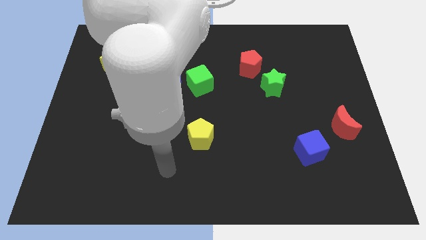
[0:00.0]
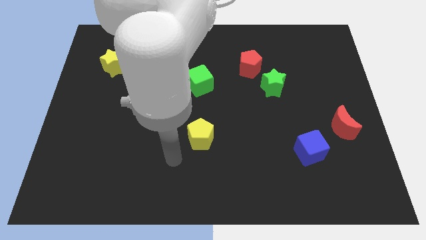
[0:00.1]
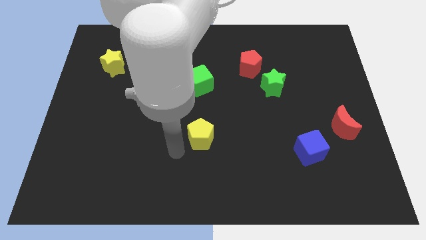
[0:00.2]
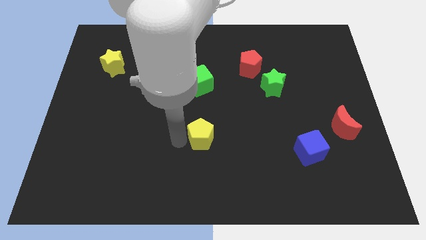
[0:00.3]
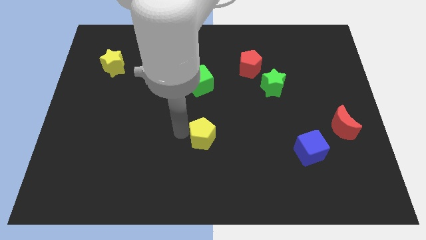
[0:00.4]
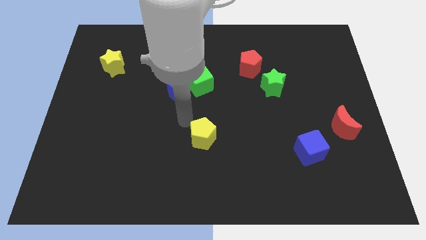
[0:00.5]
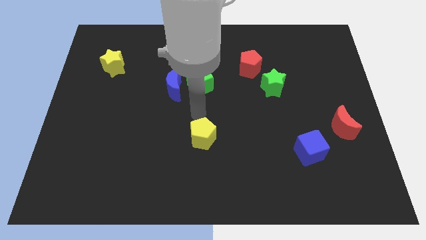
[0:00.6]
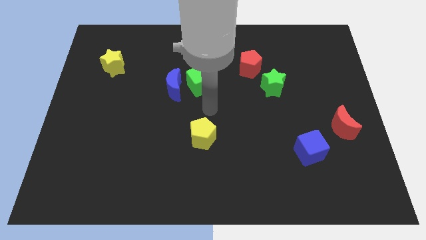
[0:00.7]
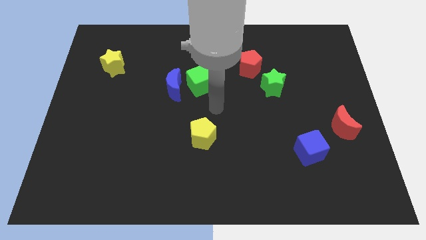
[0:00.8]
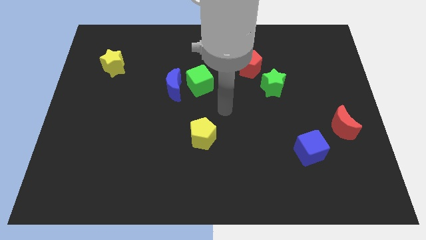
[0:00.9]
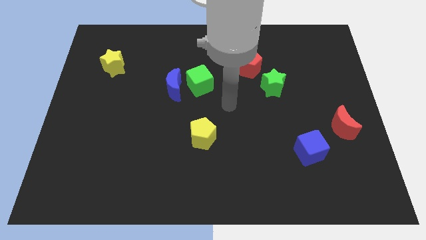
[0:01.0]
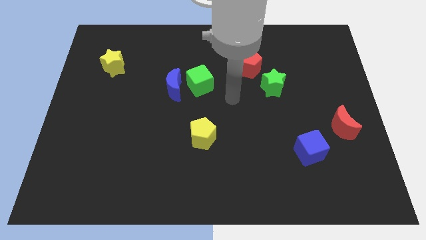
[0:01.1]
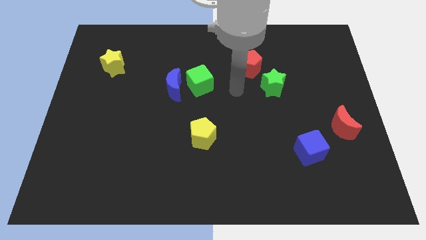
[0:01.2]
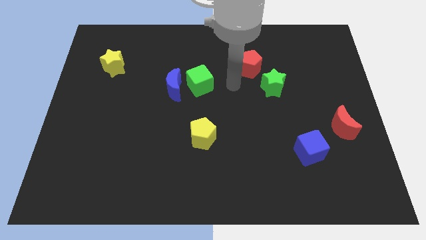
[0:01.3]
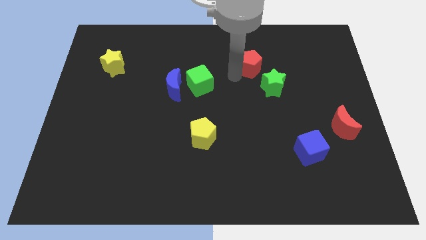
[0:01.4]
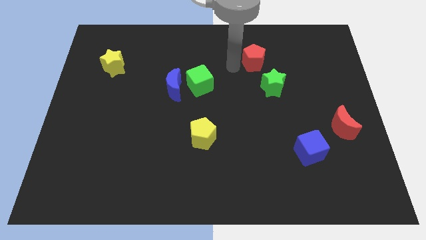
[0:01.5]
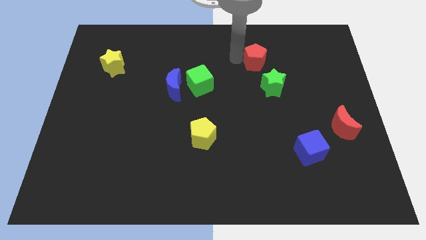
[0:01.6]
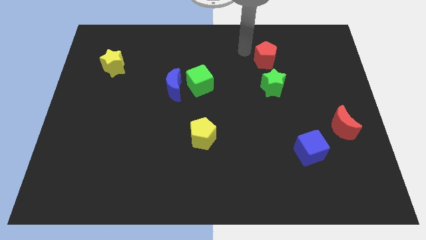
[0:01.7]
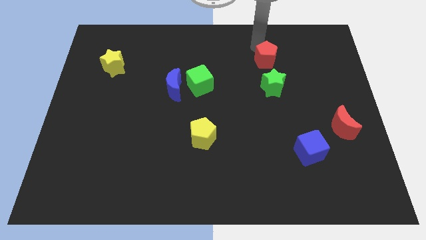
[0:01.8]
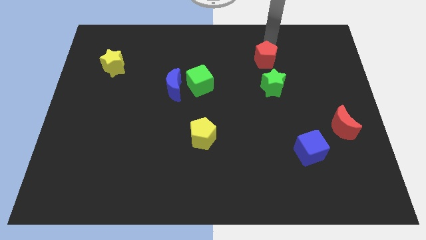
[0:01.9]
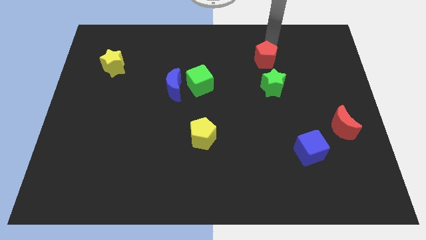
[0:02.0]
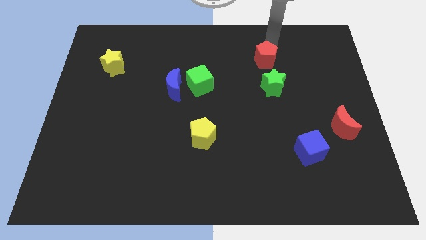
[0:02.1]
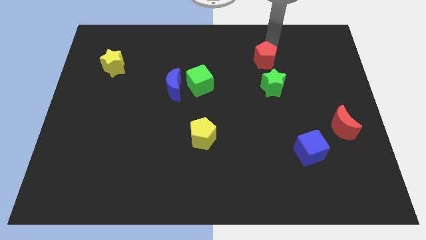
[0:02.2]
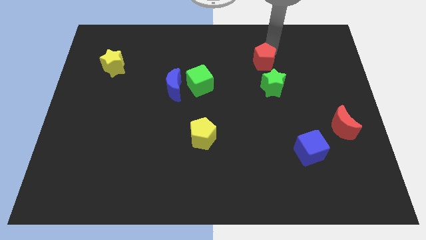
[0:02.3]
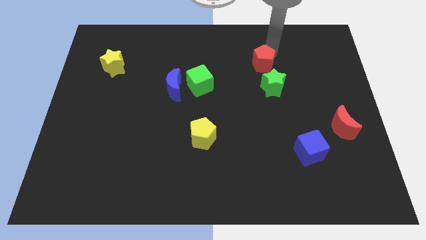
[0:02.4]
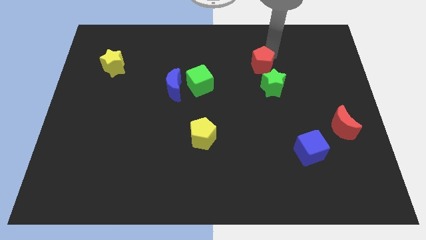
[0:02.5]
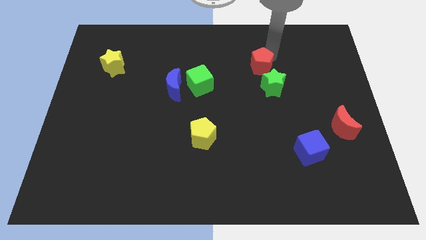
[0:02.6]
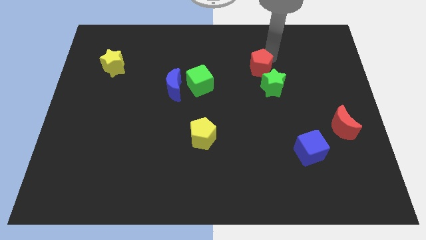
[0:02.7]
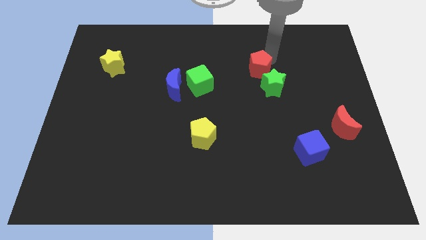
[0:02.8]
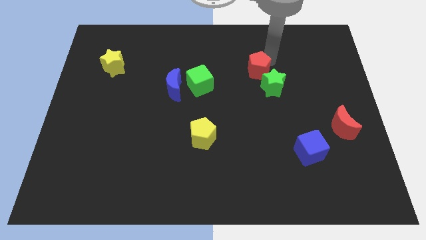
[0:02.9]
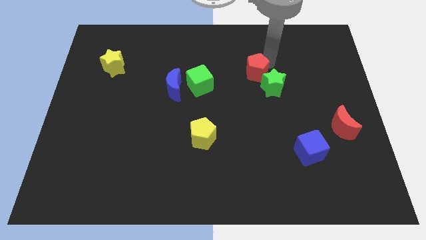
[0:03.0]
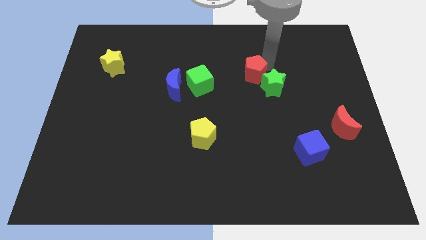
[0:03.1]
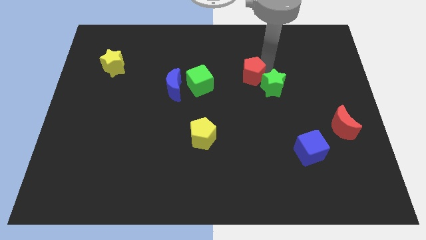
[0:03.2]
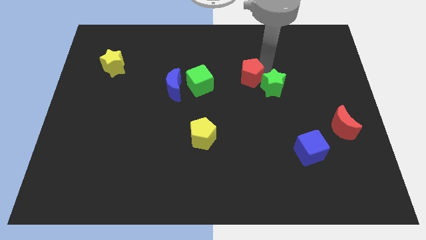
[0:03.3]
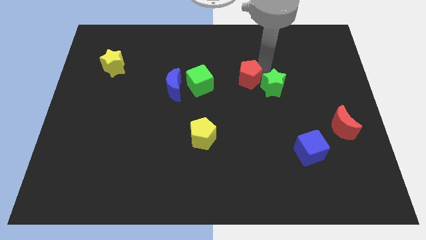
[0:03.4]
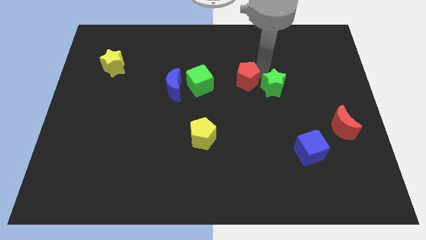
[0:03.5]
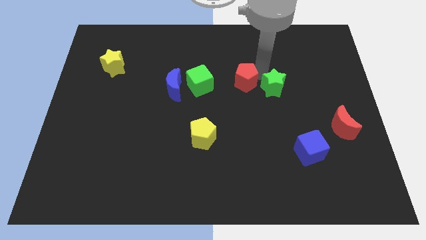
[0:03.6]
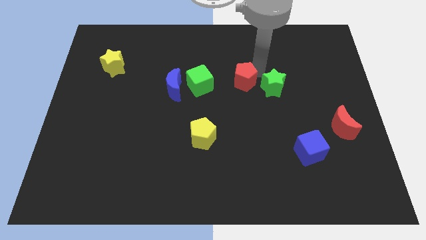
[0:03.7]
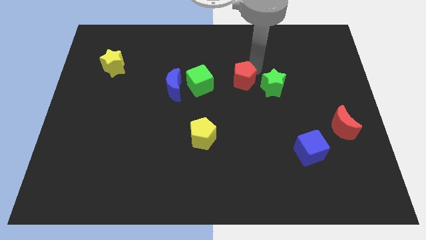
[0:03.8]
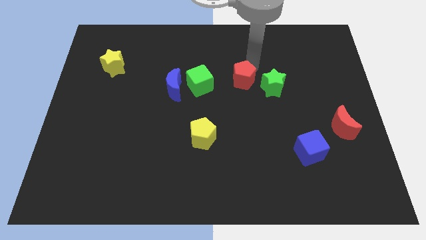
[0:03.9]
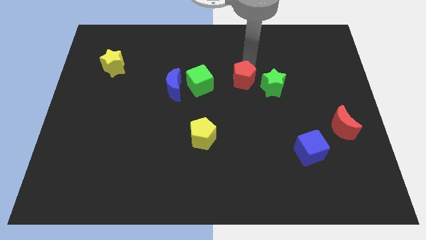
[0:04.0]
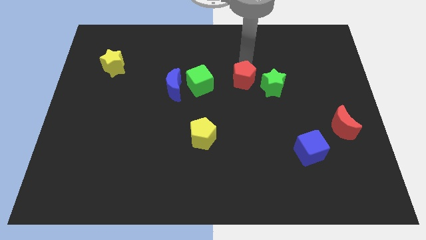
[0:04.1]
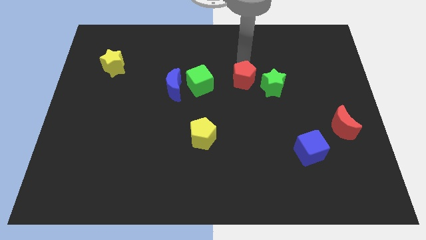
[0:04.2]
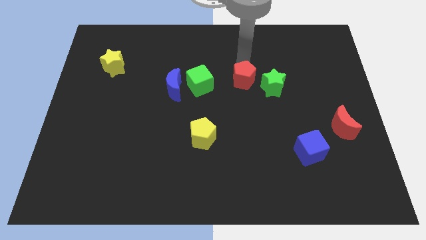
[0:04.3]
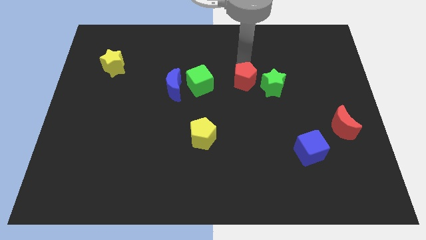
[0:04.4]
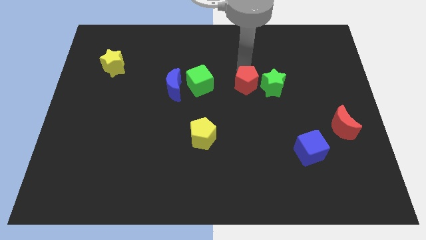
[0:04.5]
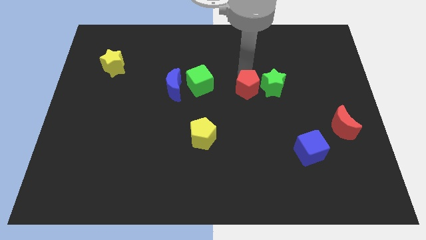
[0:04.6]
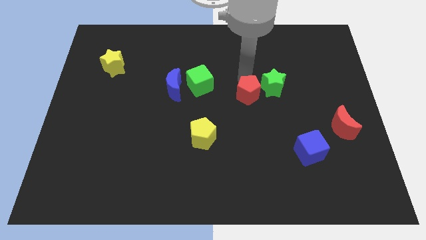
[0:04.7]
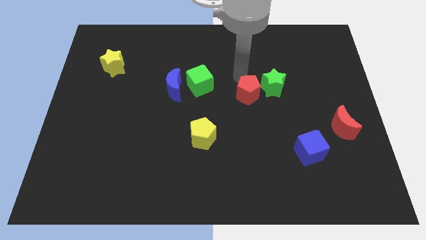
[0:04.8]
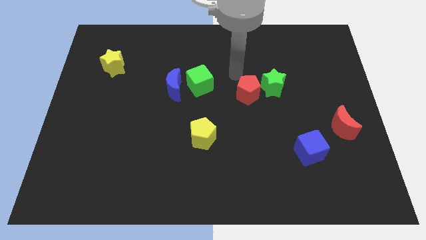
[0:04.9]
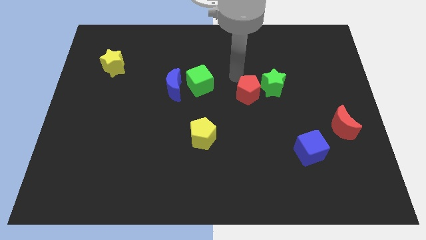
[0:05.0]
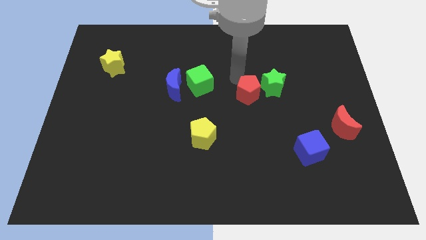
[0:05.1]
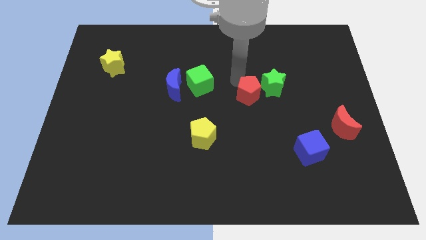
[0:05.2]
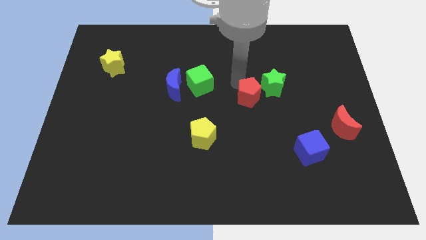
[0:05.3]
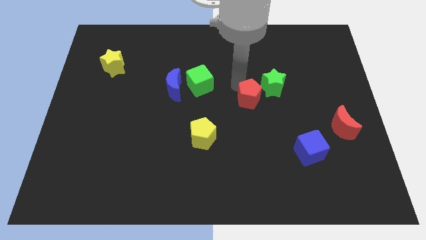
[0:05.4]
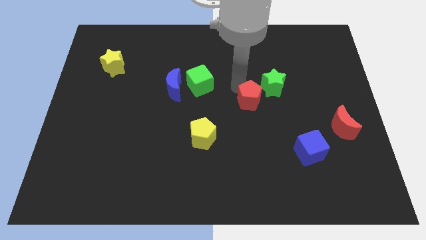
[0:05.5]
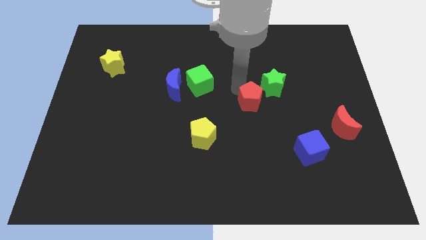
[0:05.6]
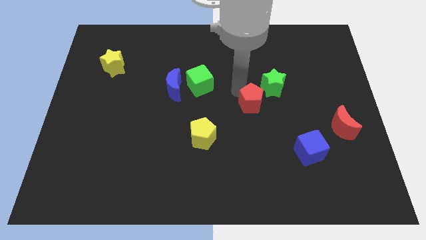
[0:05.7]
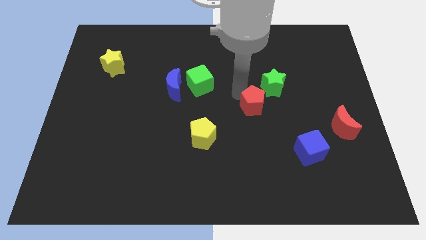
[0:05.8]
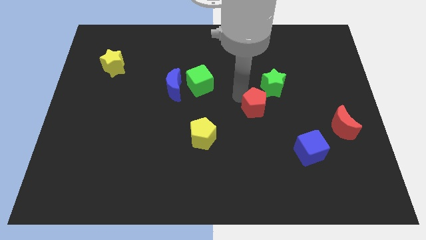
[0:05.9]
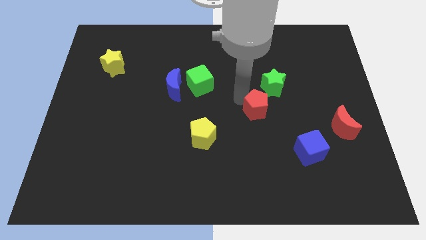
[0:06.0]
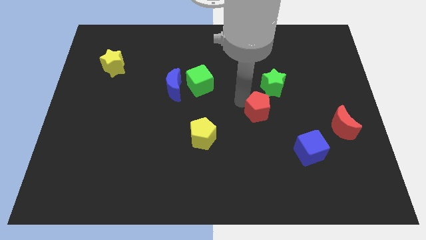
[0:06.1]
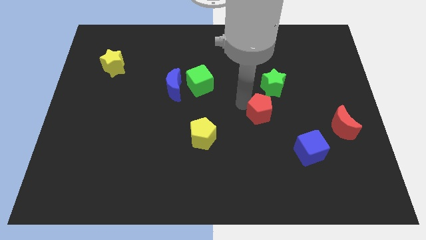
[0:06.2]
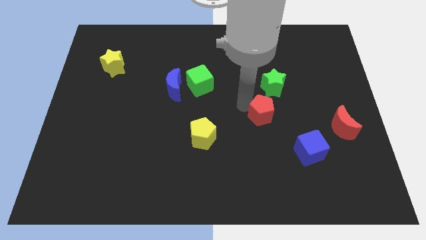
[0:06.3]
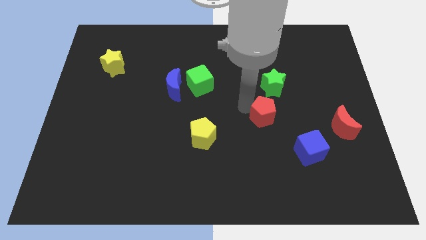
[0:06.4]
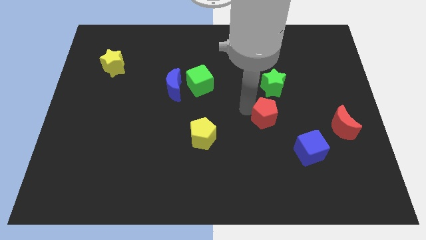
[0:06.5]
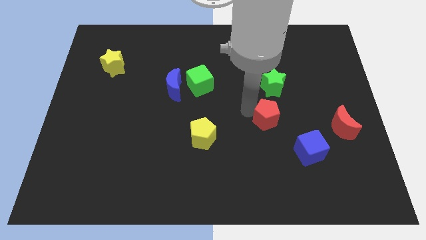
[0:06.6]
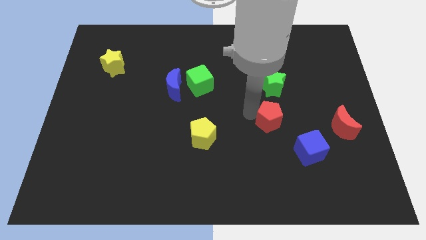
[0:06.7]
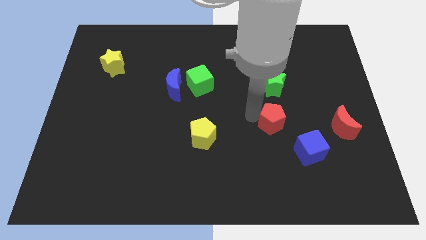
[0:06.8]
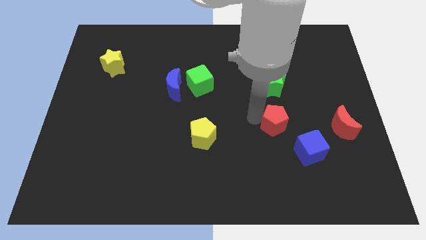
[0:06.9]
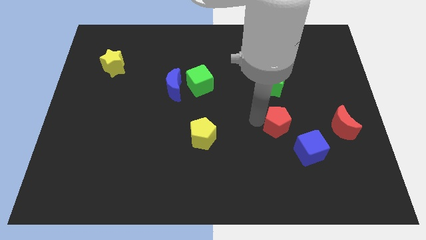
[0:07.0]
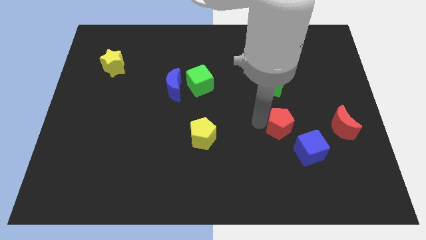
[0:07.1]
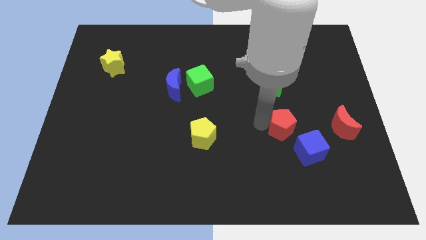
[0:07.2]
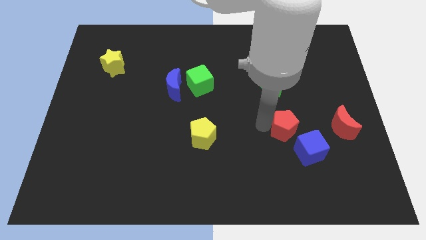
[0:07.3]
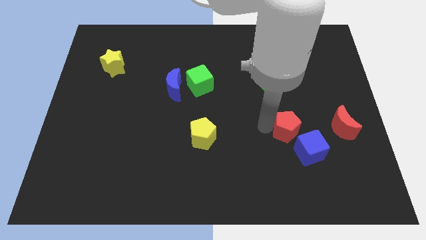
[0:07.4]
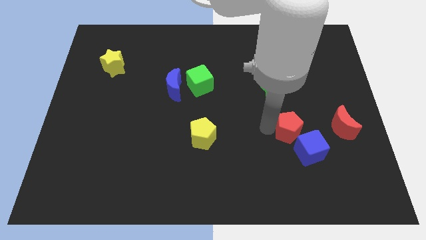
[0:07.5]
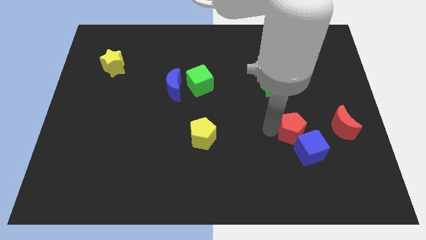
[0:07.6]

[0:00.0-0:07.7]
put the red pentagon close to the blue cube
